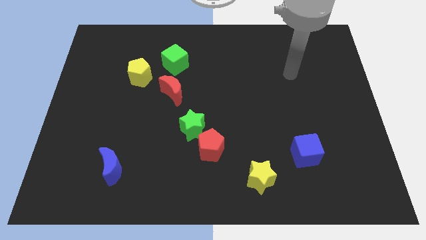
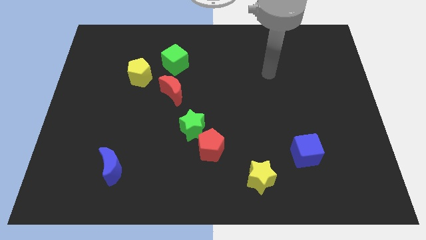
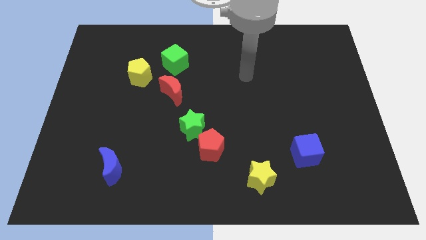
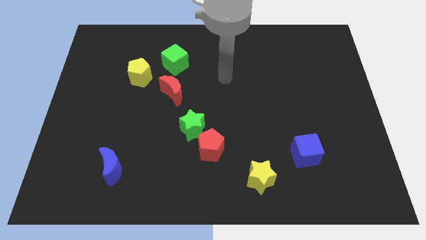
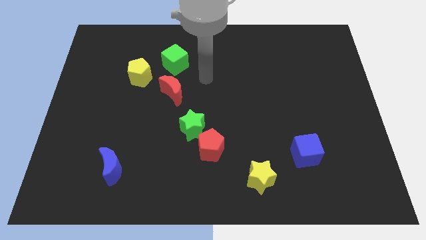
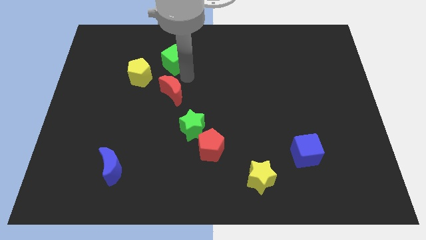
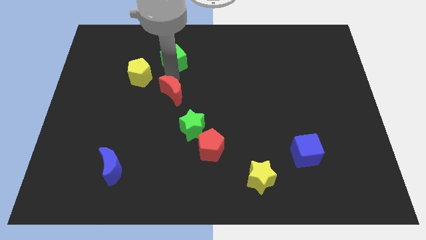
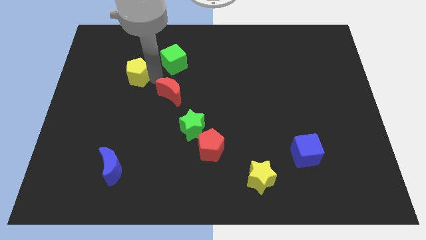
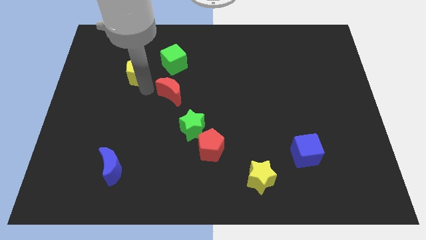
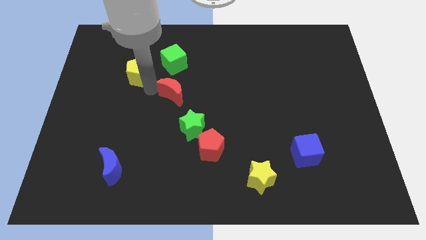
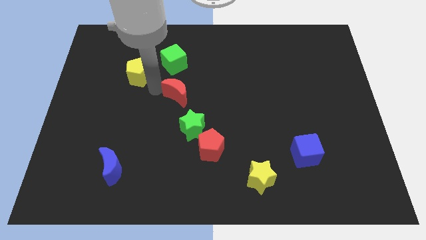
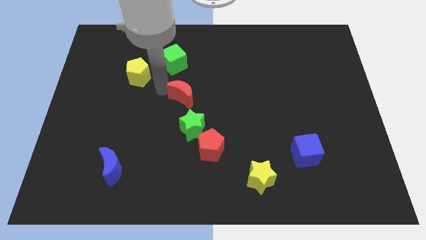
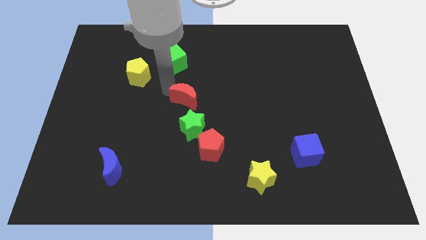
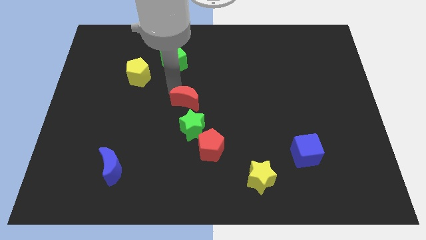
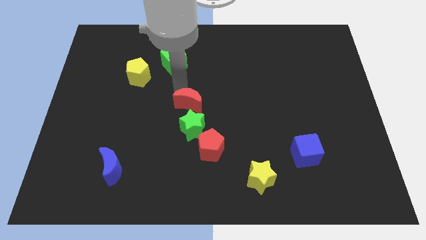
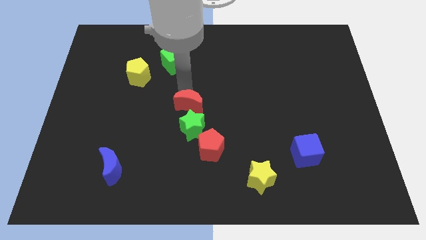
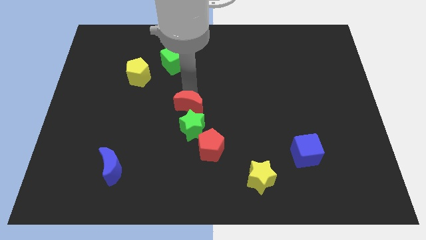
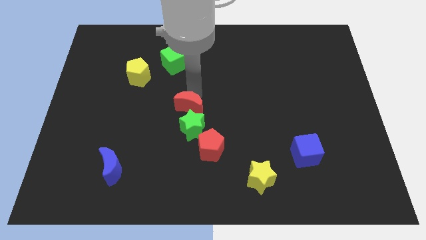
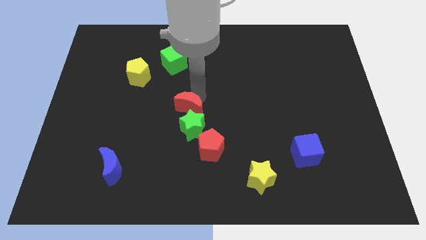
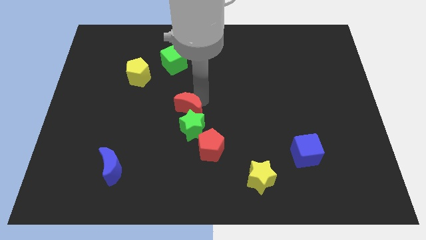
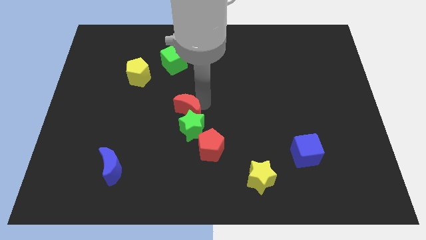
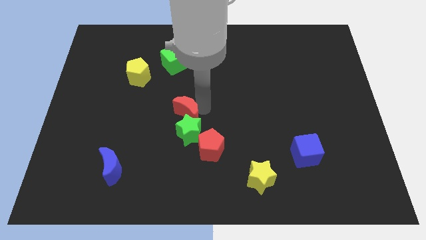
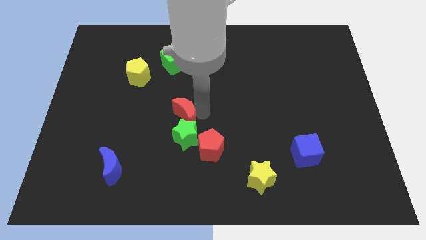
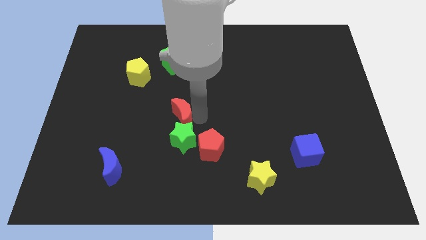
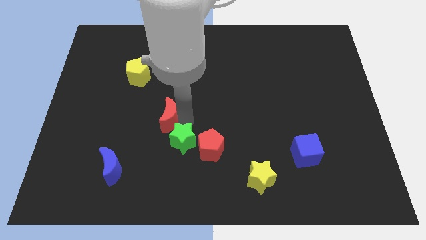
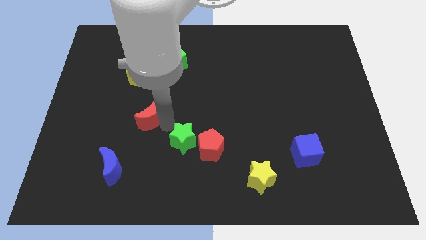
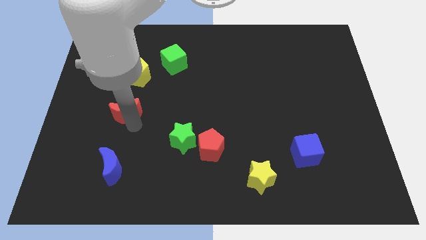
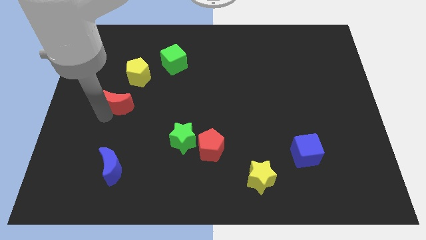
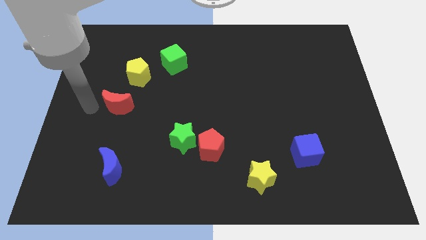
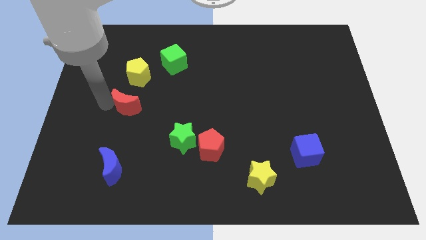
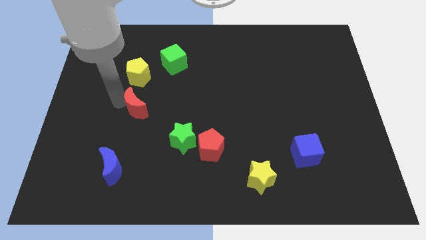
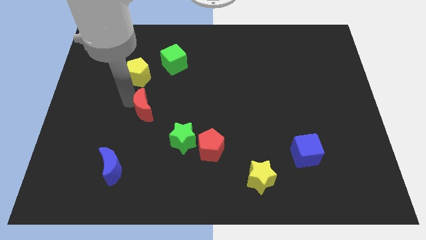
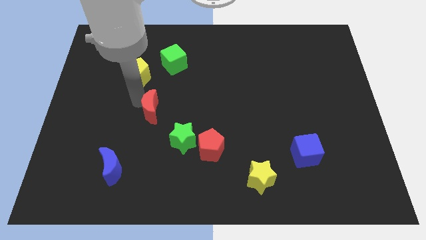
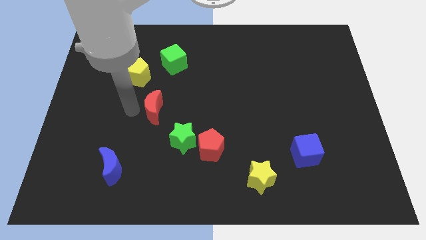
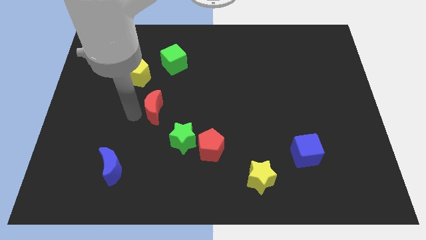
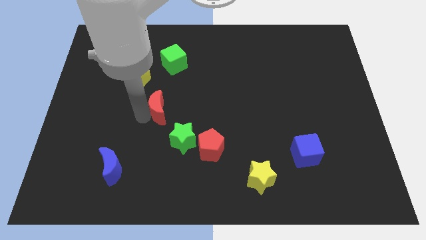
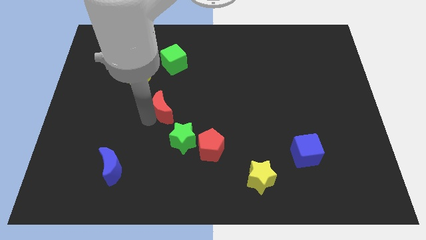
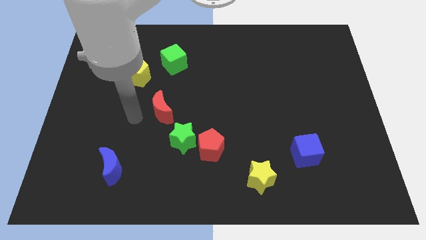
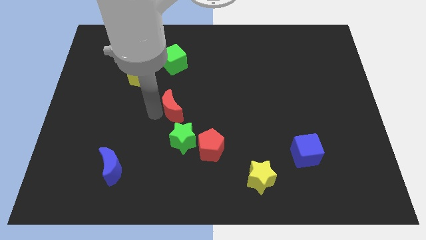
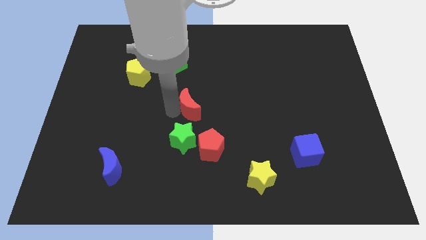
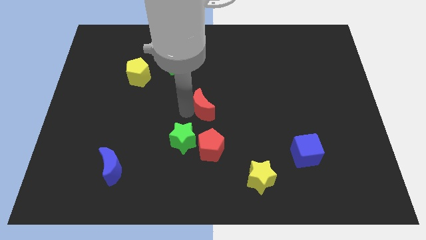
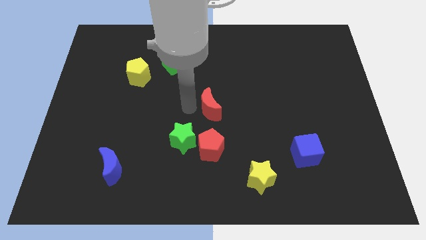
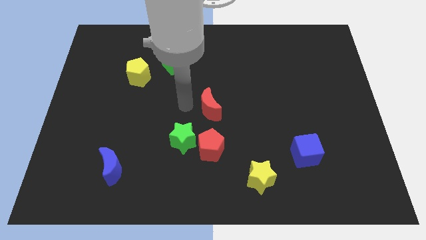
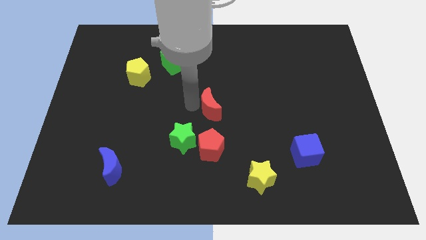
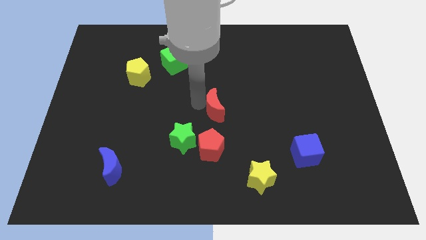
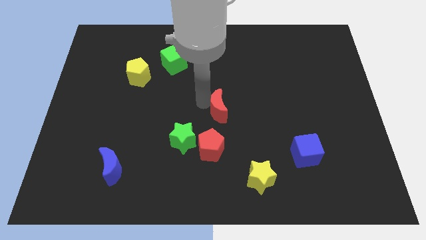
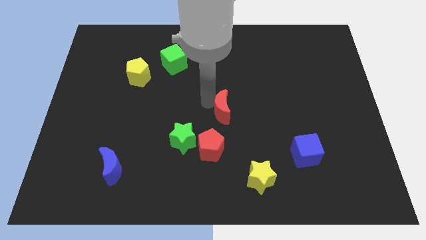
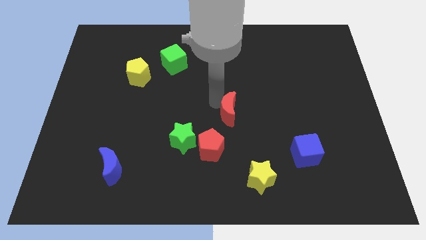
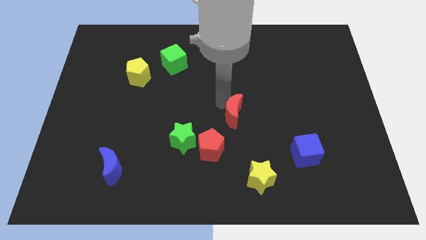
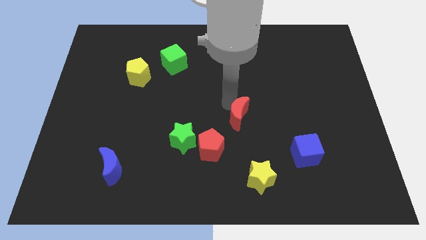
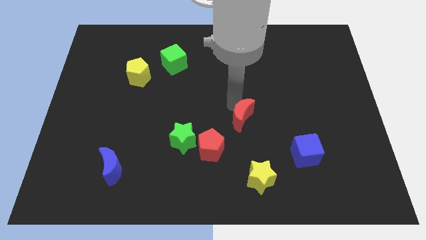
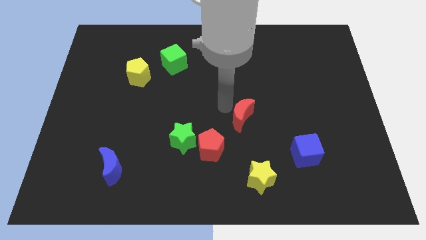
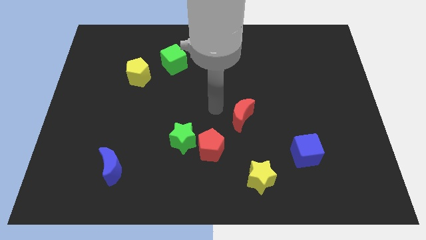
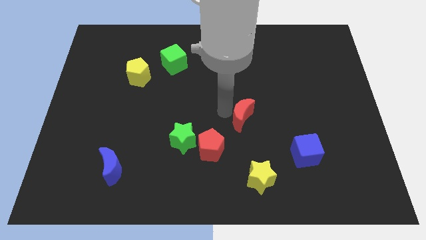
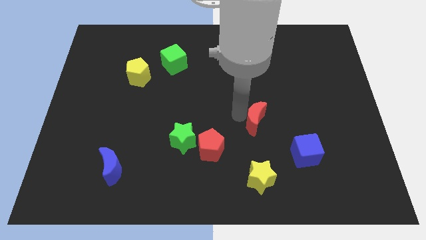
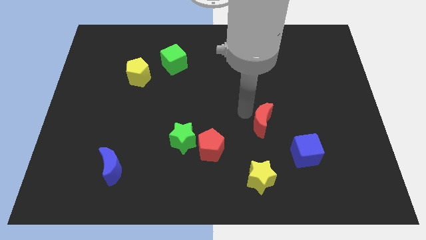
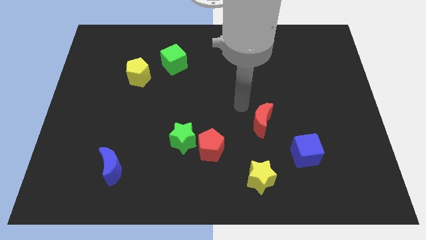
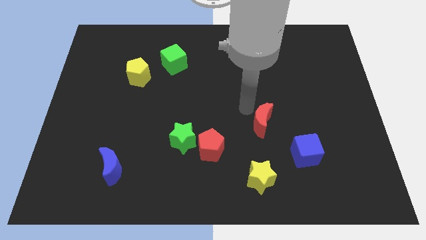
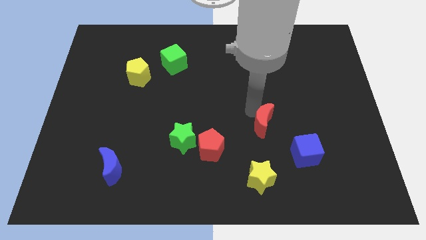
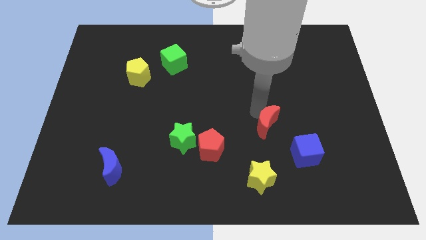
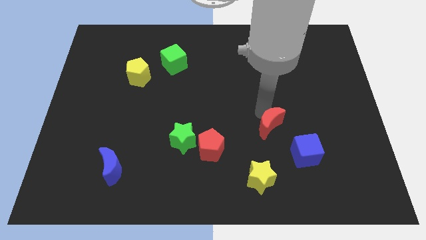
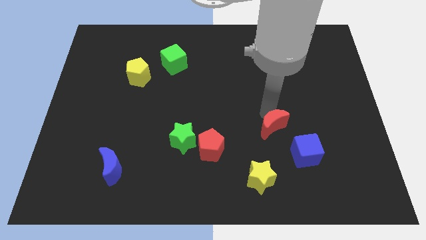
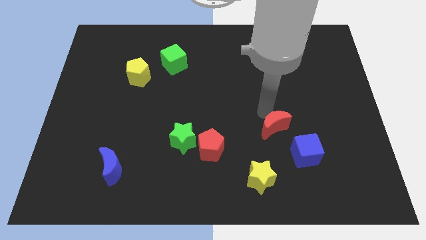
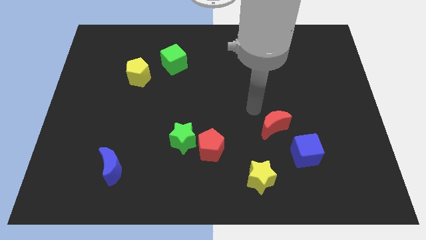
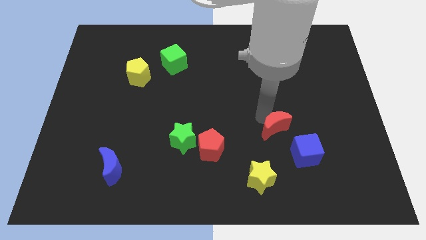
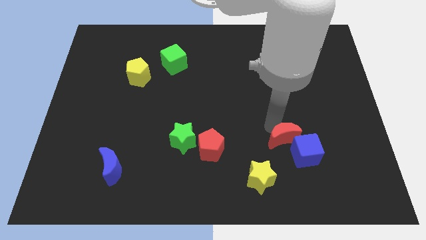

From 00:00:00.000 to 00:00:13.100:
move the red moon next to the blue cube
